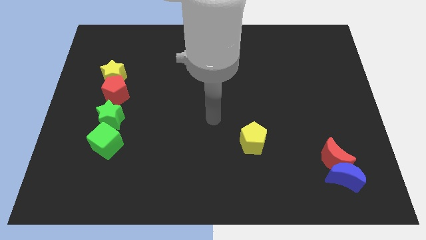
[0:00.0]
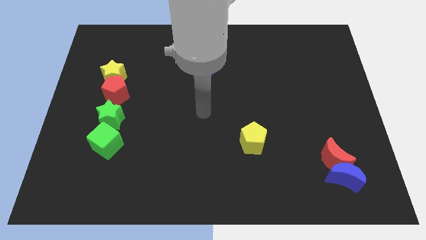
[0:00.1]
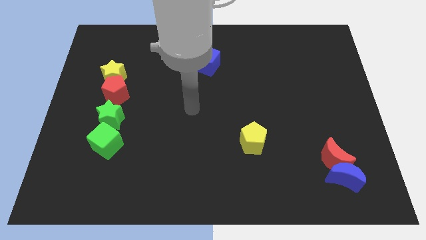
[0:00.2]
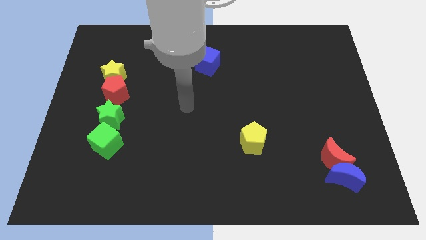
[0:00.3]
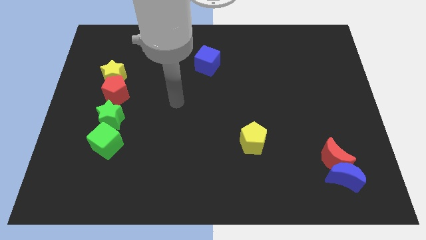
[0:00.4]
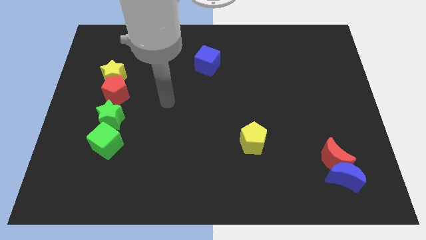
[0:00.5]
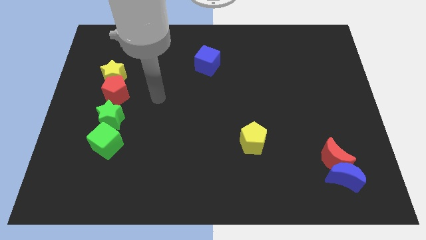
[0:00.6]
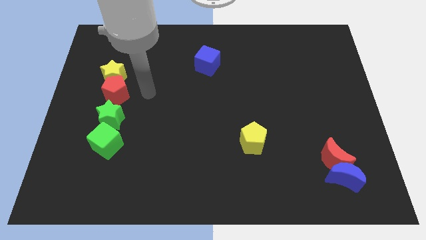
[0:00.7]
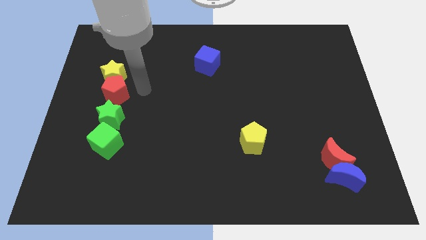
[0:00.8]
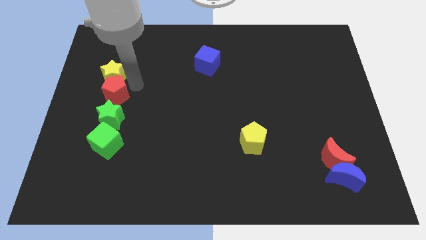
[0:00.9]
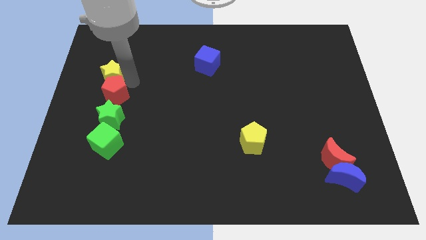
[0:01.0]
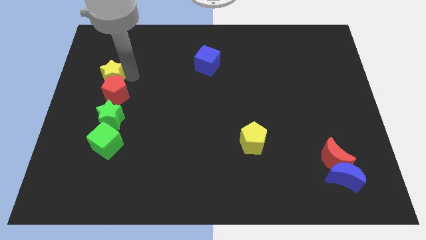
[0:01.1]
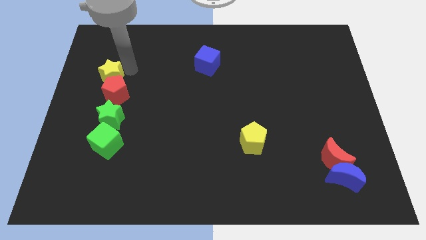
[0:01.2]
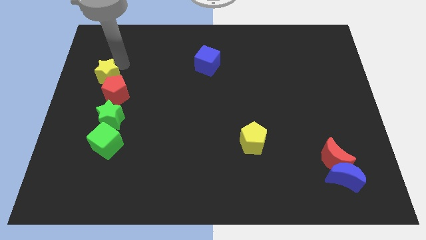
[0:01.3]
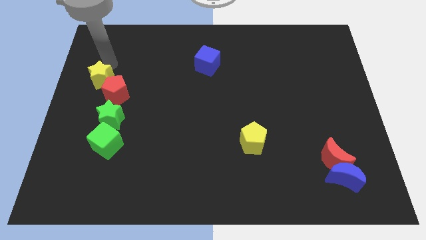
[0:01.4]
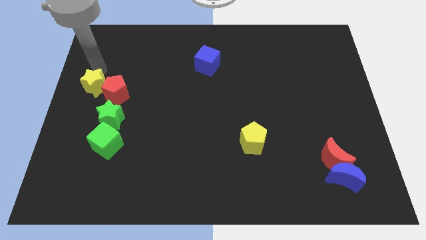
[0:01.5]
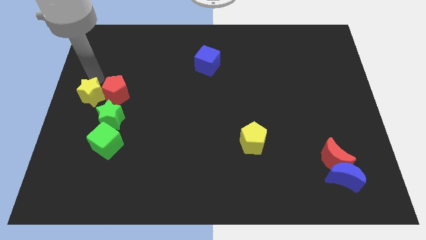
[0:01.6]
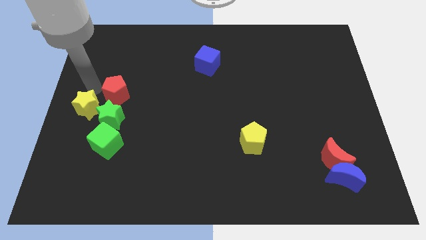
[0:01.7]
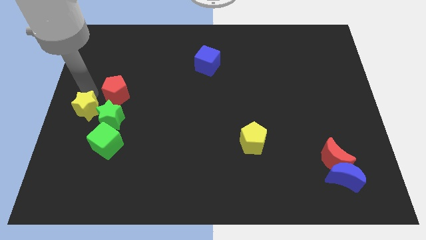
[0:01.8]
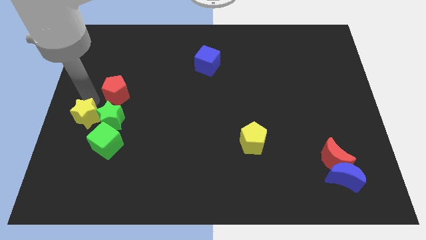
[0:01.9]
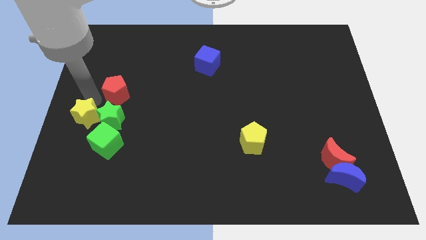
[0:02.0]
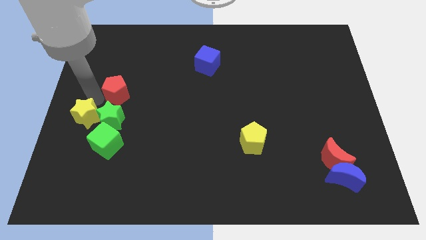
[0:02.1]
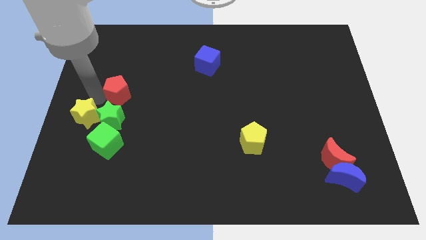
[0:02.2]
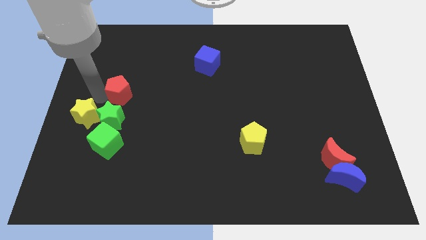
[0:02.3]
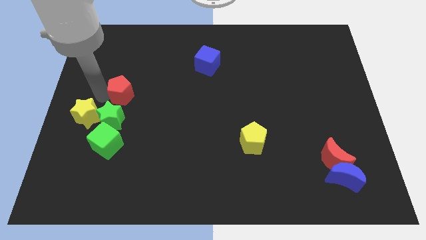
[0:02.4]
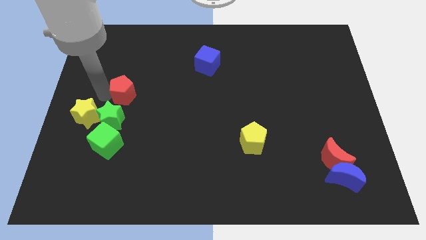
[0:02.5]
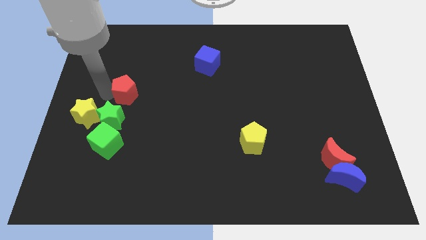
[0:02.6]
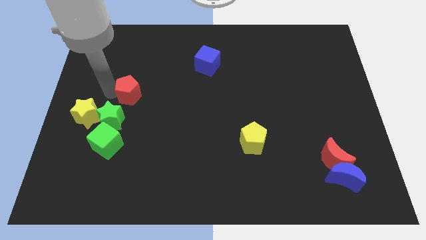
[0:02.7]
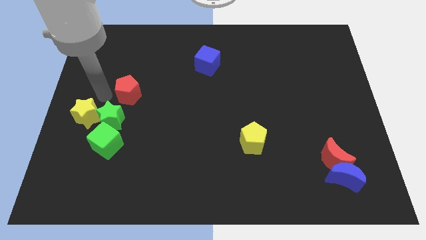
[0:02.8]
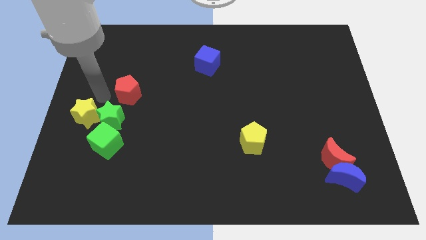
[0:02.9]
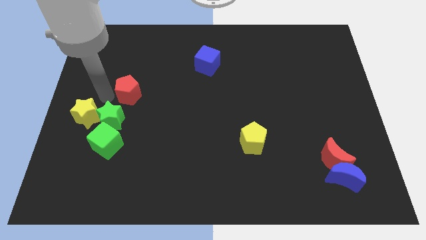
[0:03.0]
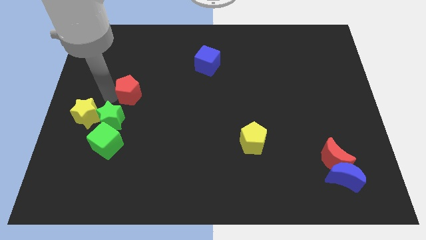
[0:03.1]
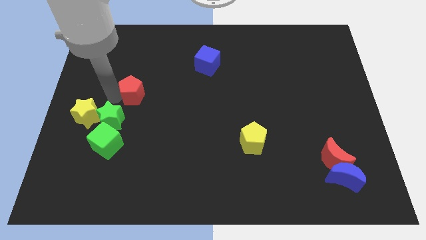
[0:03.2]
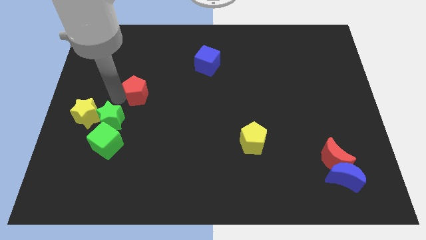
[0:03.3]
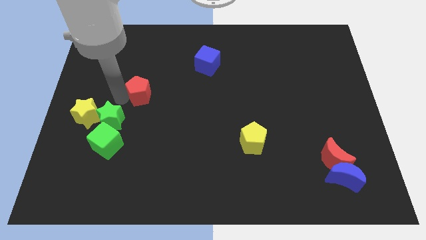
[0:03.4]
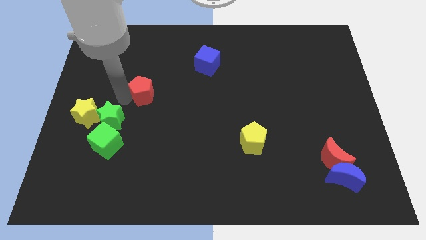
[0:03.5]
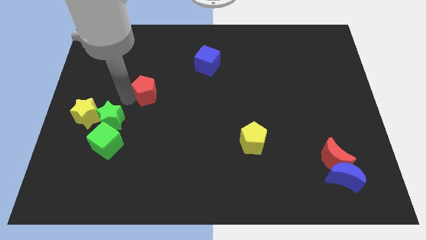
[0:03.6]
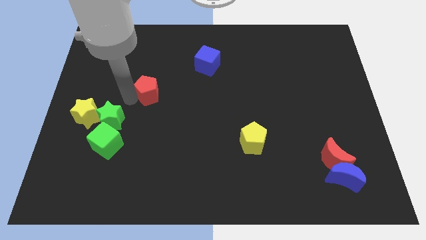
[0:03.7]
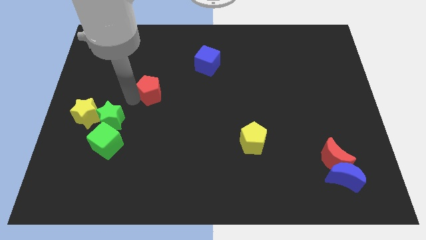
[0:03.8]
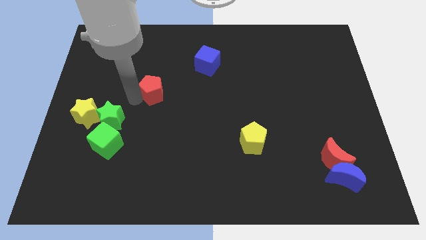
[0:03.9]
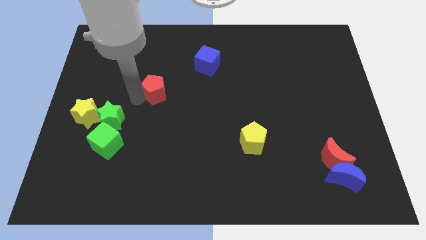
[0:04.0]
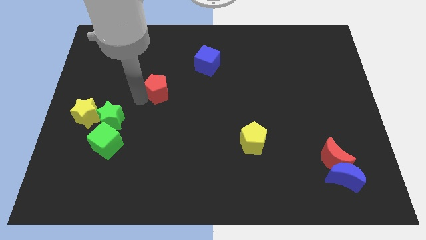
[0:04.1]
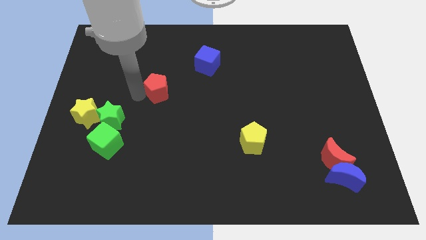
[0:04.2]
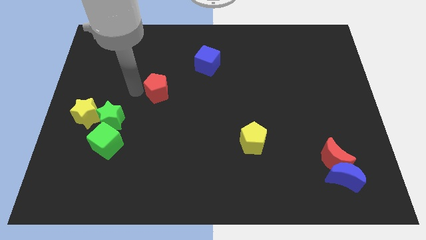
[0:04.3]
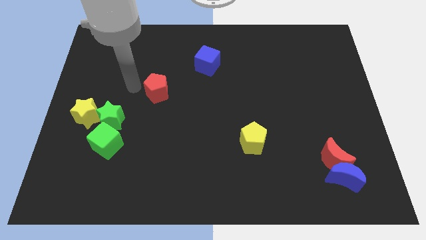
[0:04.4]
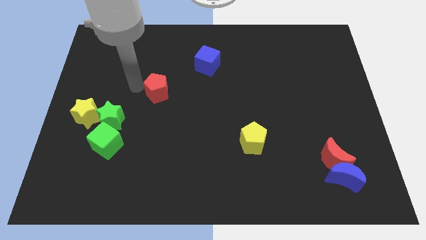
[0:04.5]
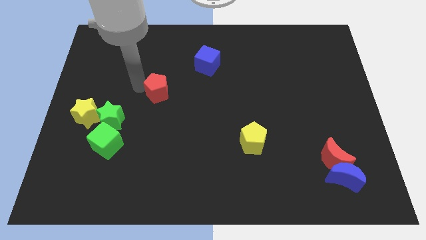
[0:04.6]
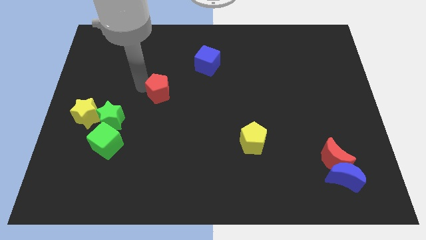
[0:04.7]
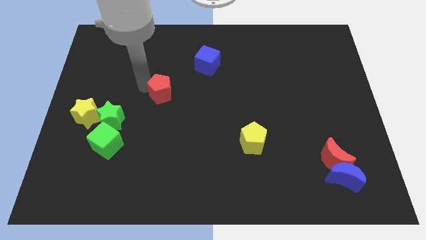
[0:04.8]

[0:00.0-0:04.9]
push the red pentagon to the center

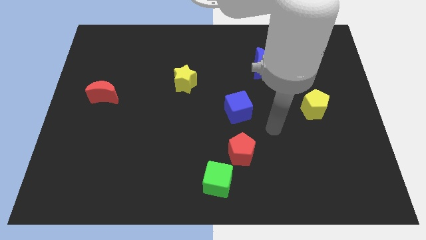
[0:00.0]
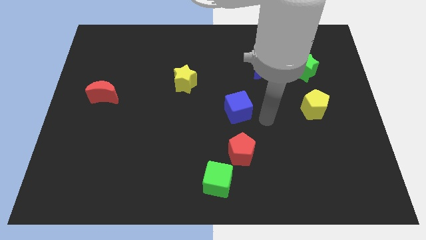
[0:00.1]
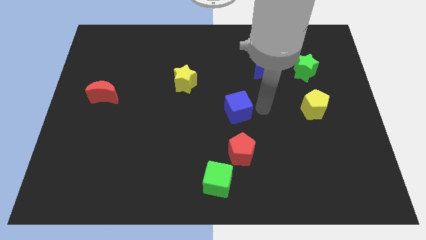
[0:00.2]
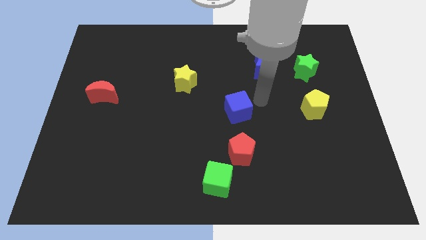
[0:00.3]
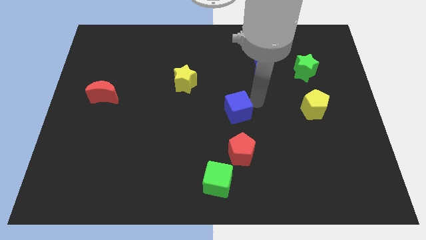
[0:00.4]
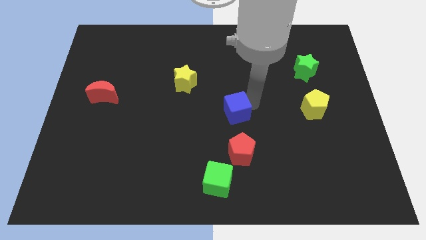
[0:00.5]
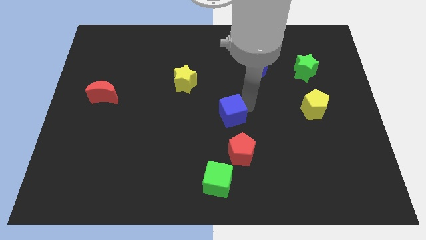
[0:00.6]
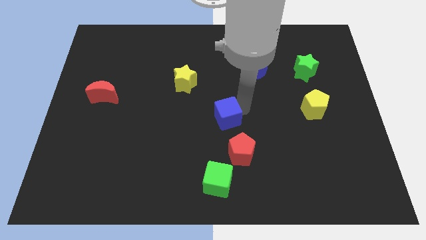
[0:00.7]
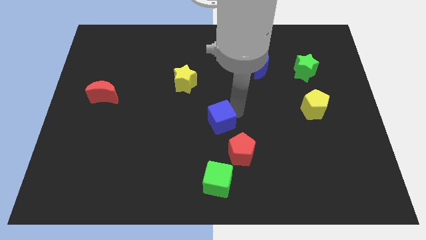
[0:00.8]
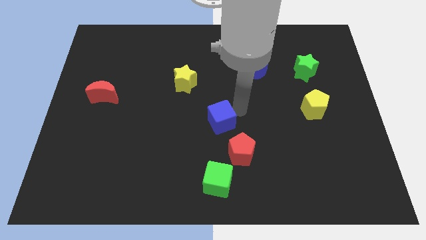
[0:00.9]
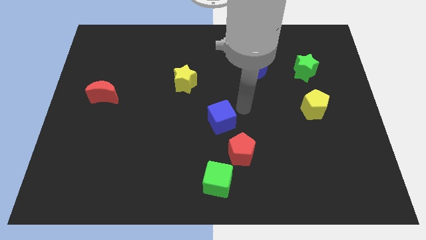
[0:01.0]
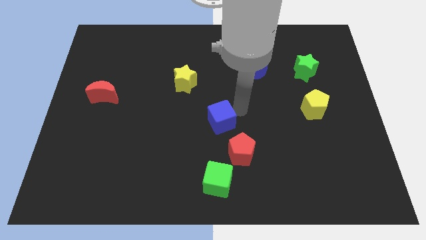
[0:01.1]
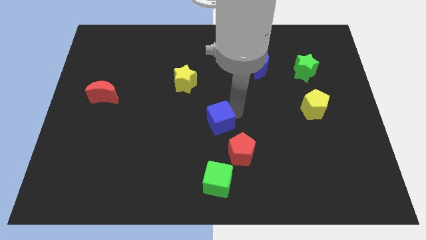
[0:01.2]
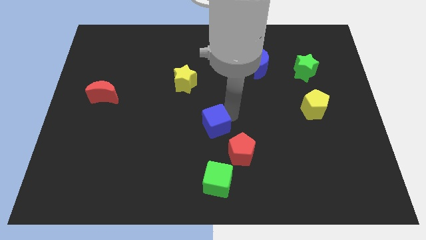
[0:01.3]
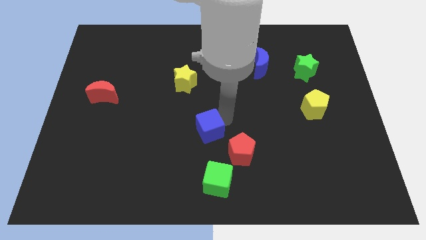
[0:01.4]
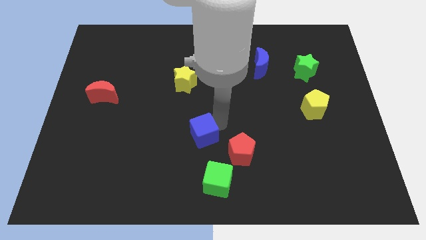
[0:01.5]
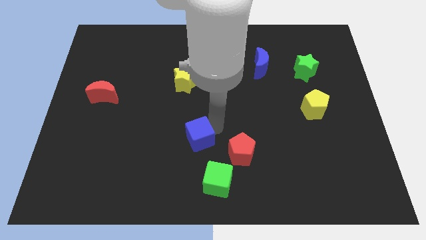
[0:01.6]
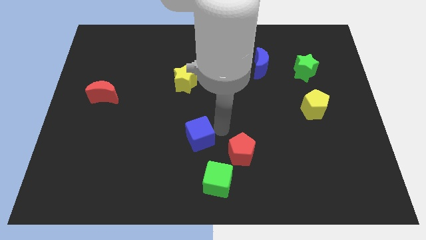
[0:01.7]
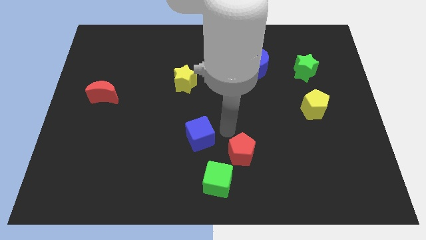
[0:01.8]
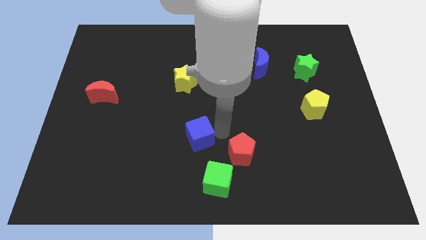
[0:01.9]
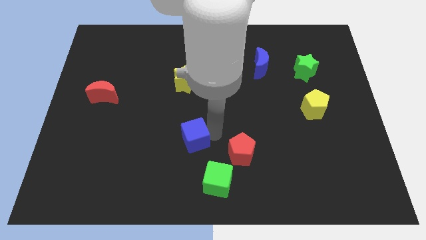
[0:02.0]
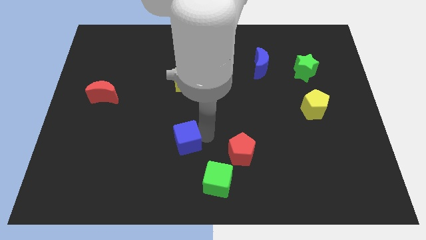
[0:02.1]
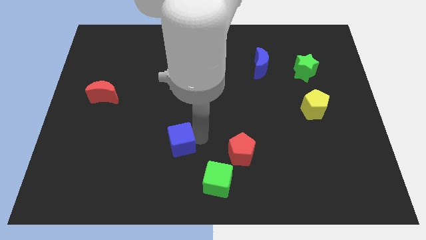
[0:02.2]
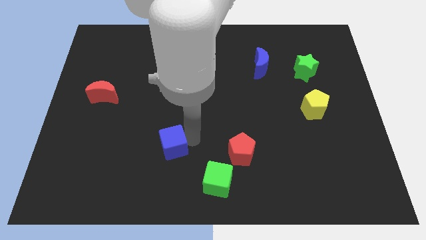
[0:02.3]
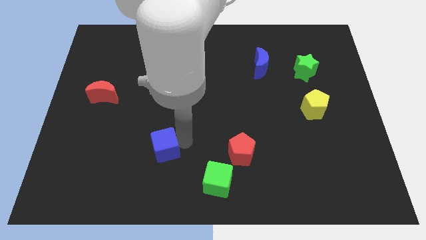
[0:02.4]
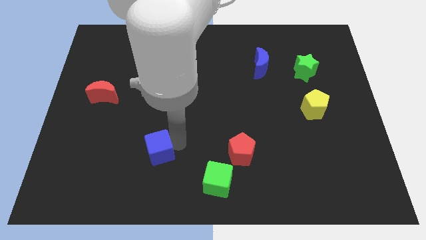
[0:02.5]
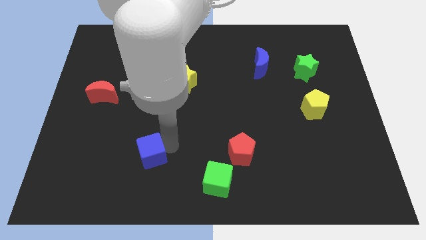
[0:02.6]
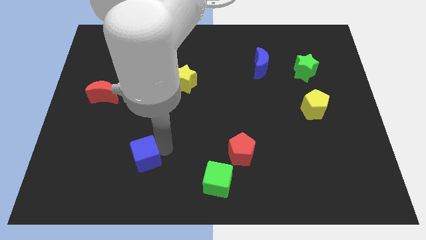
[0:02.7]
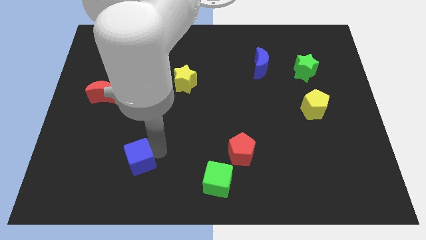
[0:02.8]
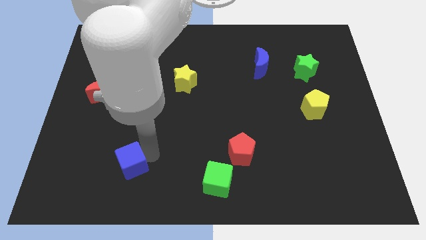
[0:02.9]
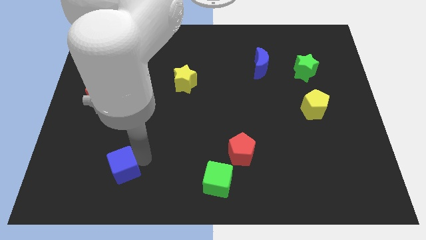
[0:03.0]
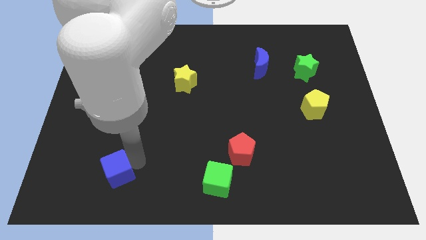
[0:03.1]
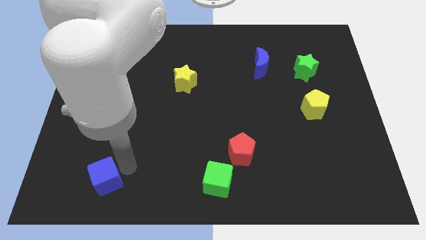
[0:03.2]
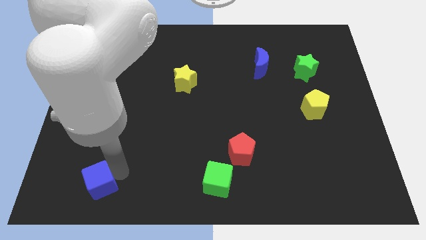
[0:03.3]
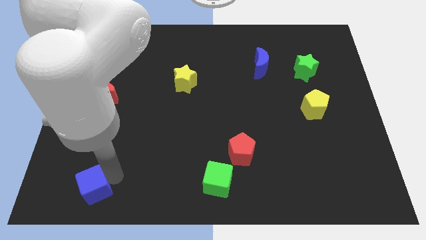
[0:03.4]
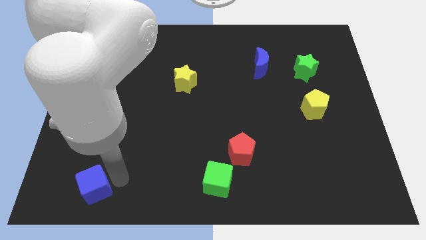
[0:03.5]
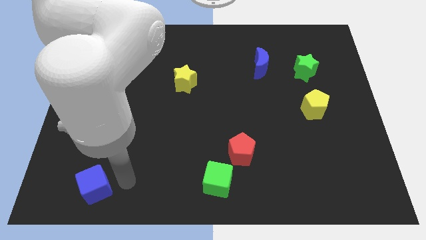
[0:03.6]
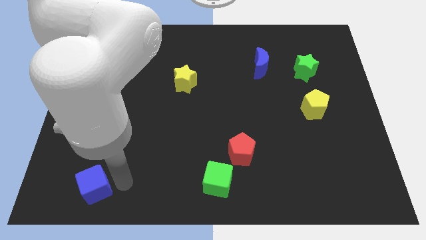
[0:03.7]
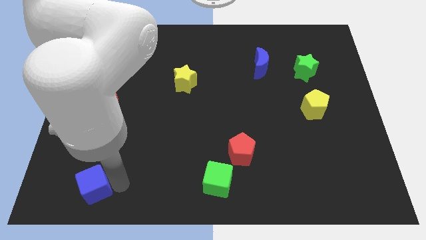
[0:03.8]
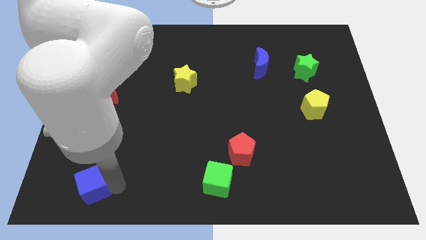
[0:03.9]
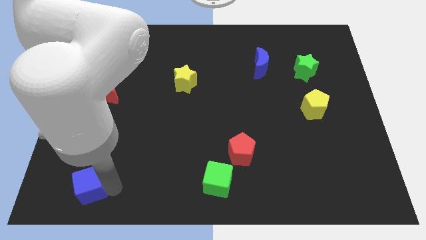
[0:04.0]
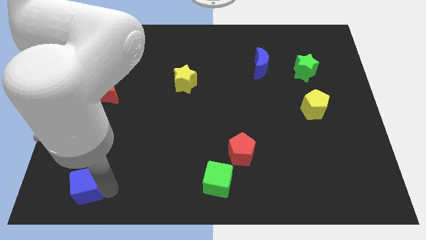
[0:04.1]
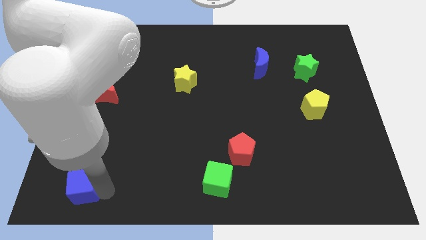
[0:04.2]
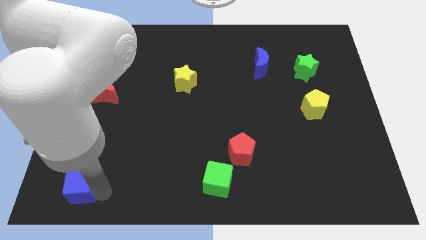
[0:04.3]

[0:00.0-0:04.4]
slide the blue cube to the bottom left corner
